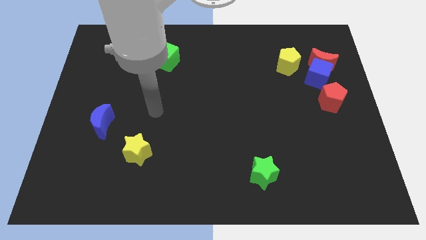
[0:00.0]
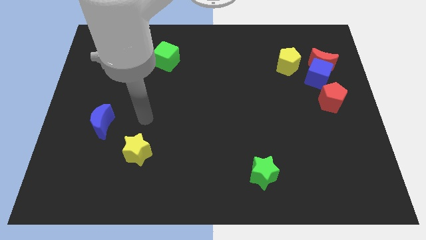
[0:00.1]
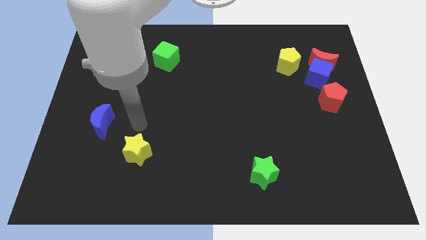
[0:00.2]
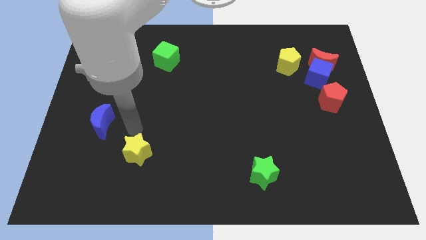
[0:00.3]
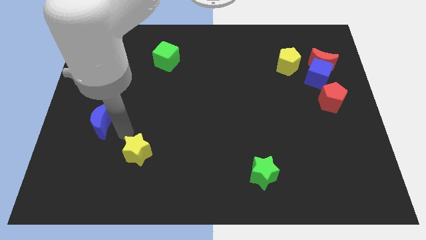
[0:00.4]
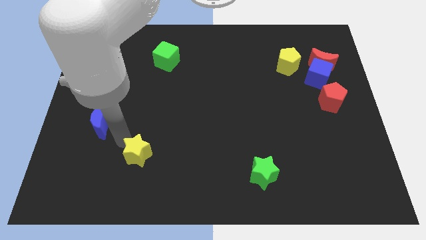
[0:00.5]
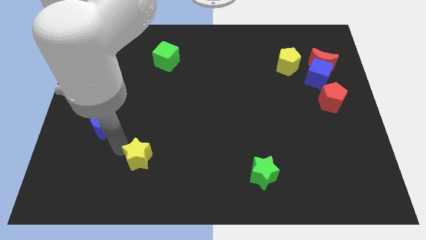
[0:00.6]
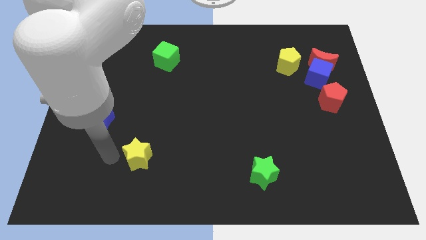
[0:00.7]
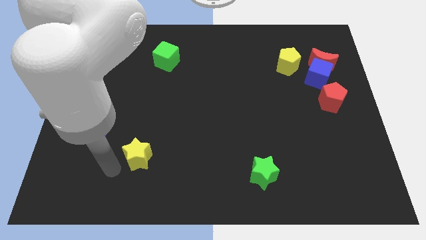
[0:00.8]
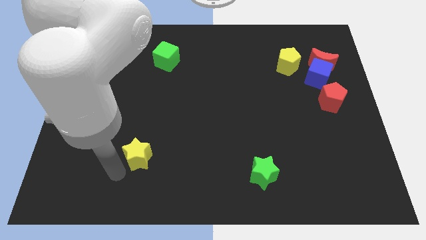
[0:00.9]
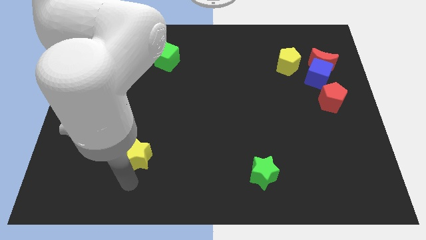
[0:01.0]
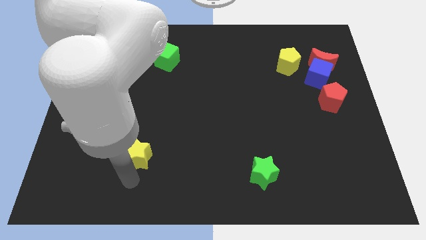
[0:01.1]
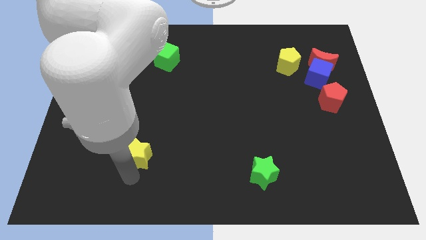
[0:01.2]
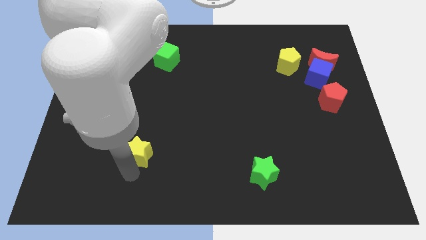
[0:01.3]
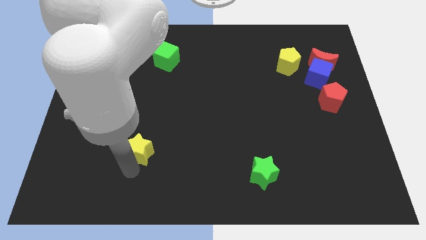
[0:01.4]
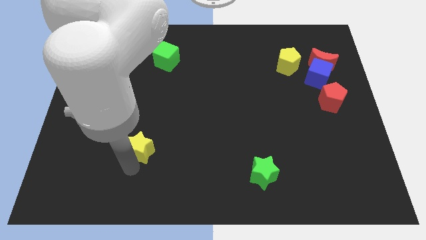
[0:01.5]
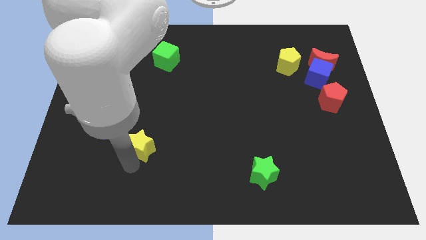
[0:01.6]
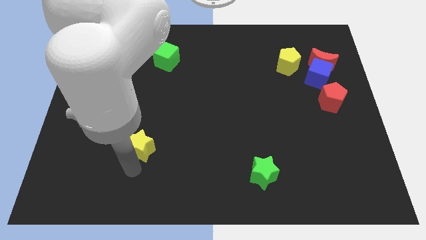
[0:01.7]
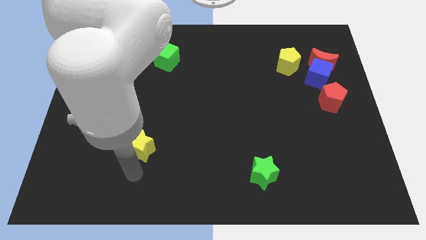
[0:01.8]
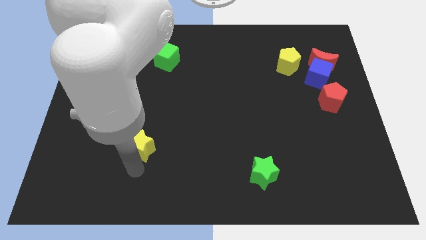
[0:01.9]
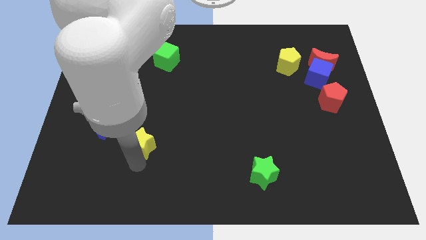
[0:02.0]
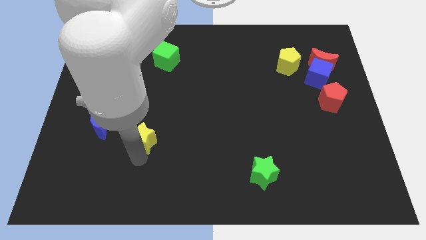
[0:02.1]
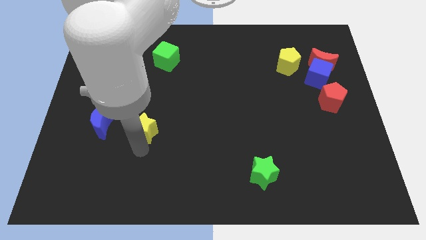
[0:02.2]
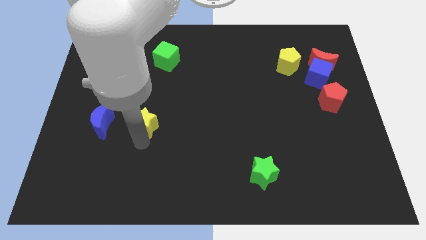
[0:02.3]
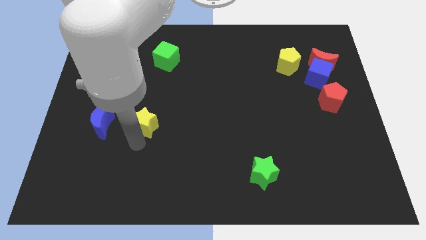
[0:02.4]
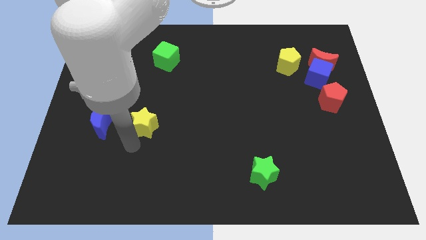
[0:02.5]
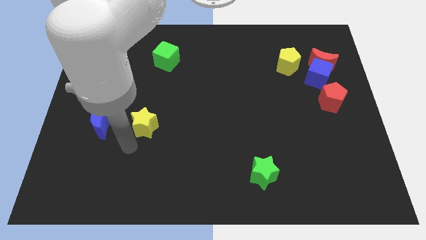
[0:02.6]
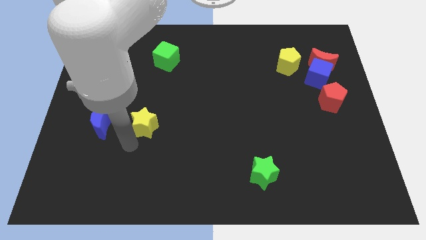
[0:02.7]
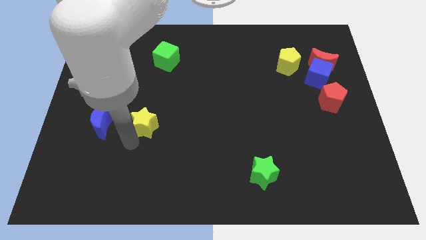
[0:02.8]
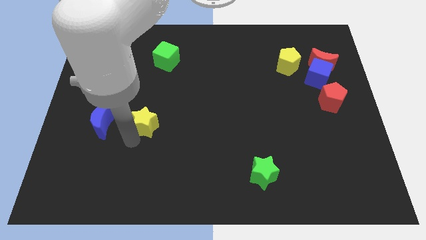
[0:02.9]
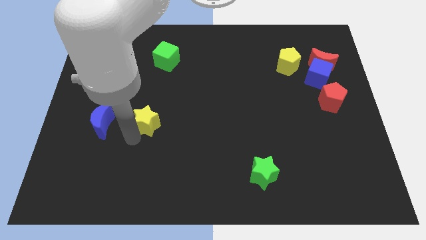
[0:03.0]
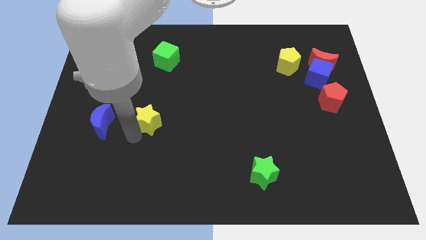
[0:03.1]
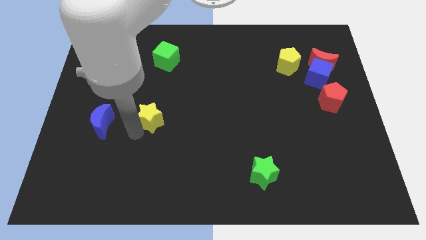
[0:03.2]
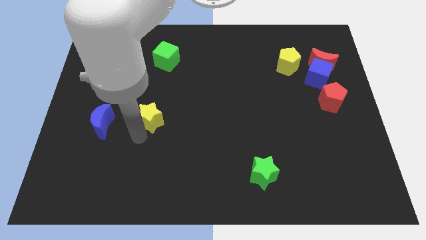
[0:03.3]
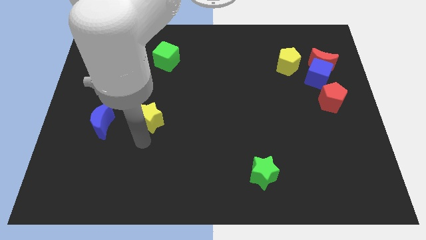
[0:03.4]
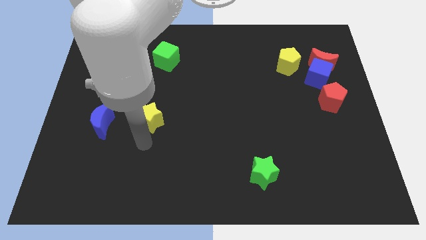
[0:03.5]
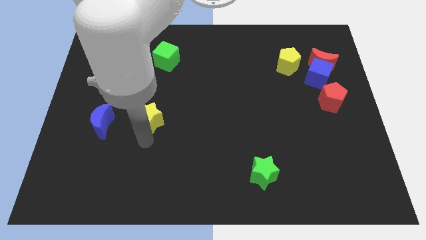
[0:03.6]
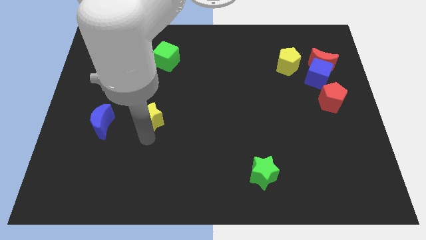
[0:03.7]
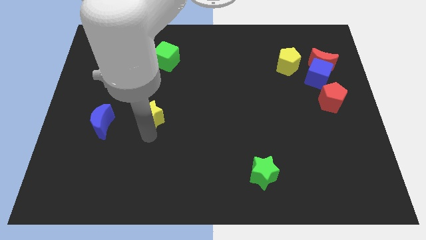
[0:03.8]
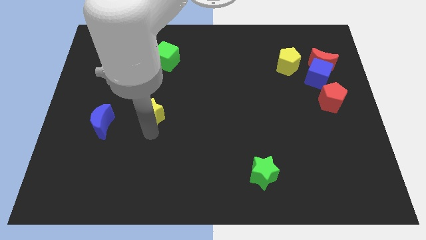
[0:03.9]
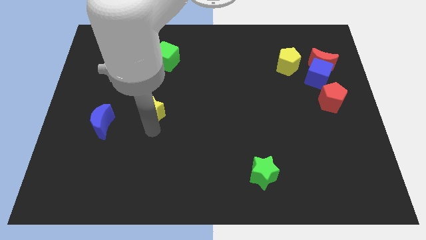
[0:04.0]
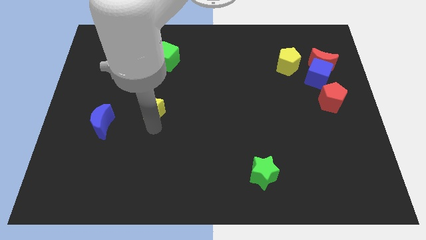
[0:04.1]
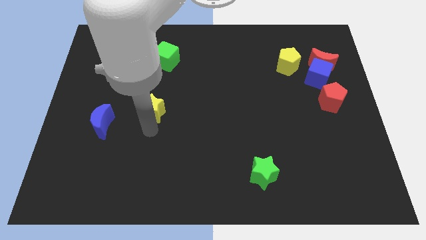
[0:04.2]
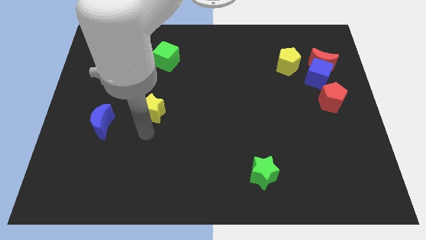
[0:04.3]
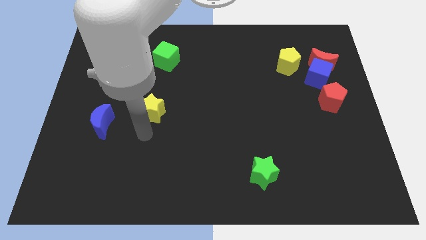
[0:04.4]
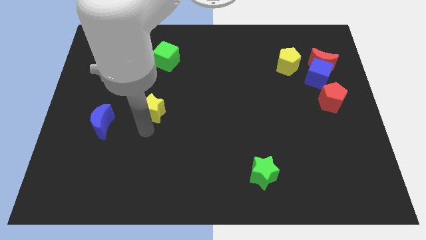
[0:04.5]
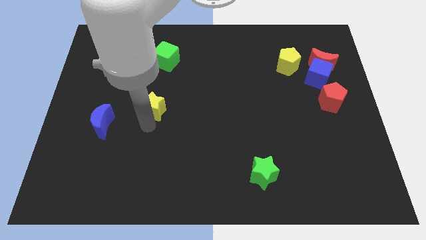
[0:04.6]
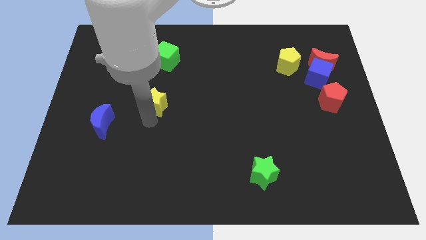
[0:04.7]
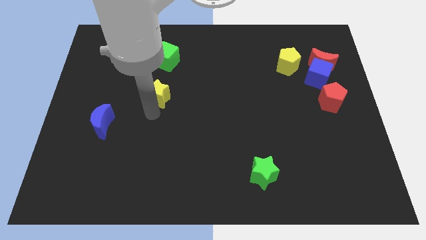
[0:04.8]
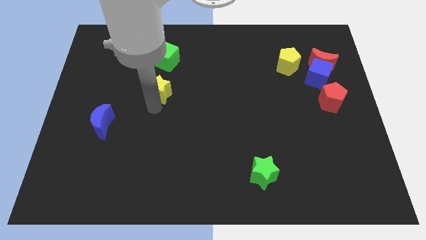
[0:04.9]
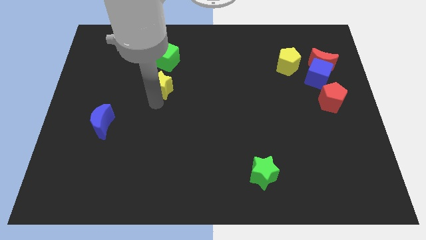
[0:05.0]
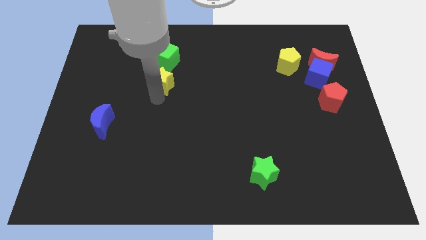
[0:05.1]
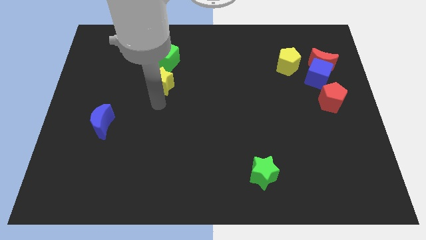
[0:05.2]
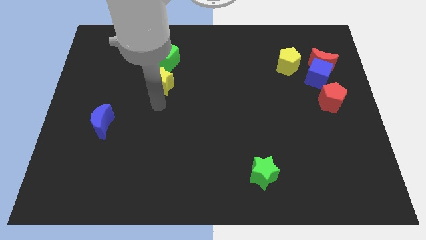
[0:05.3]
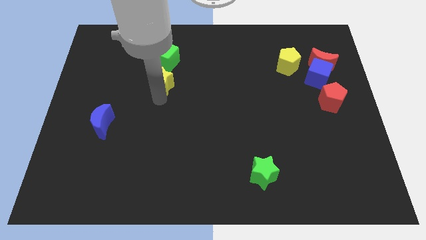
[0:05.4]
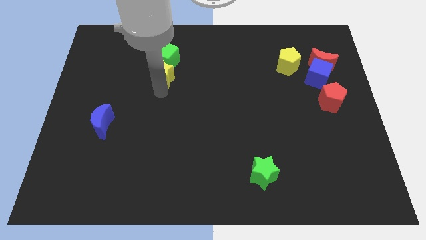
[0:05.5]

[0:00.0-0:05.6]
put the yellow star to the green cube

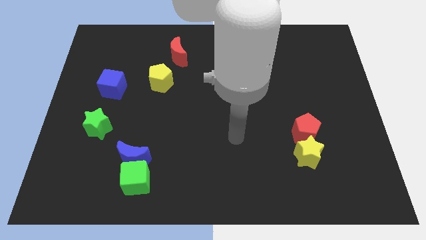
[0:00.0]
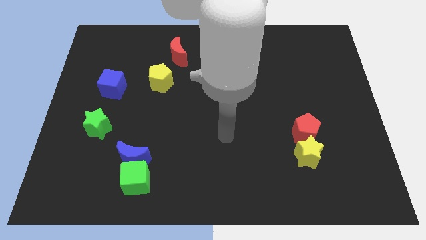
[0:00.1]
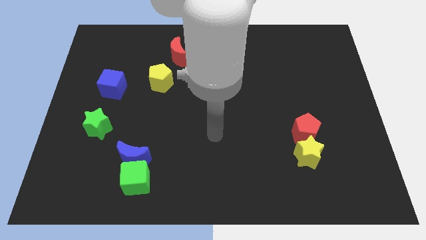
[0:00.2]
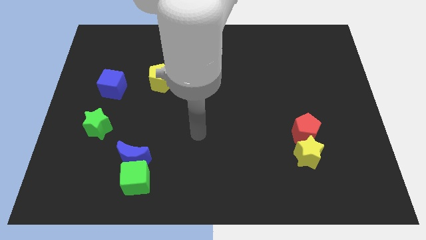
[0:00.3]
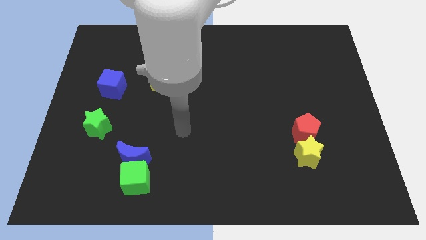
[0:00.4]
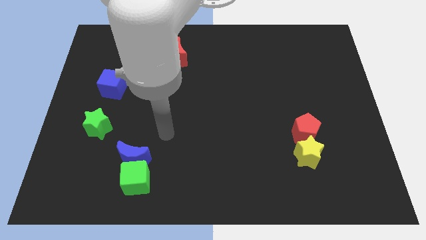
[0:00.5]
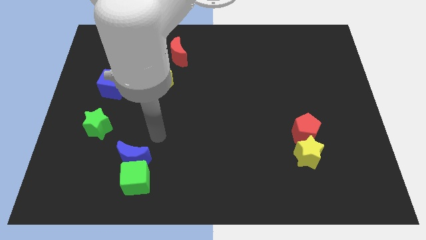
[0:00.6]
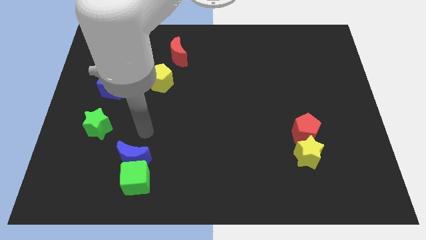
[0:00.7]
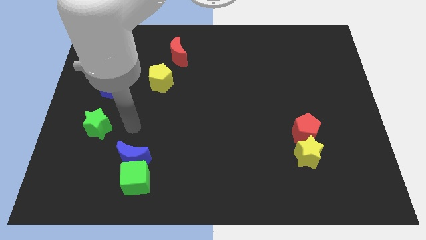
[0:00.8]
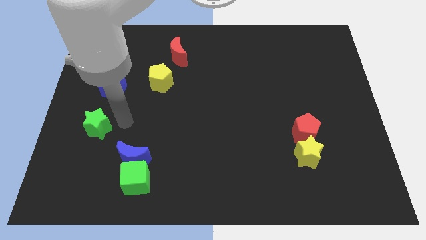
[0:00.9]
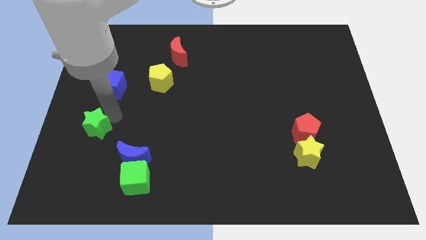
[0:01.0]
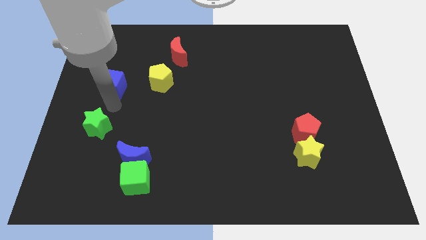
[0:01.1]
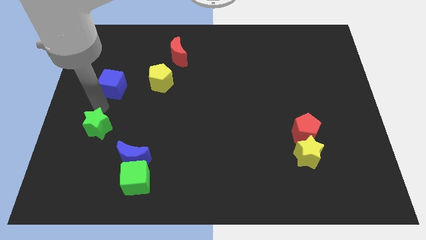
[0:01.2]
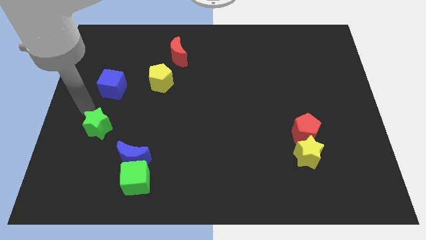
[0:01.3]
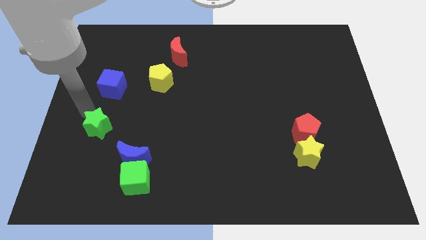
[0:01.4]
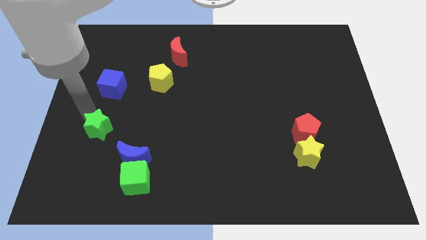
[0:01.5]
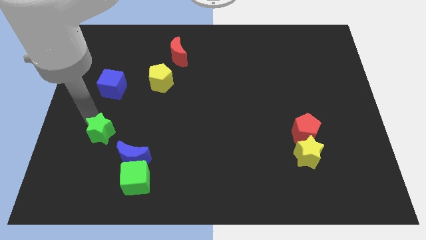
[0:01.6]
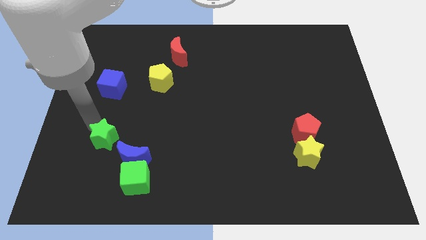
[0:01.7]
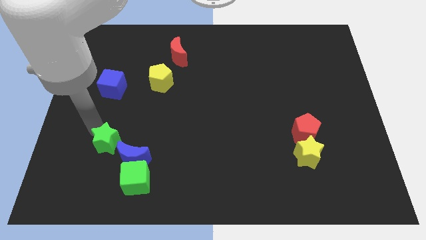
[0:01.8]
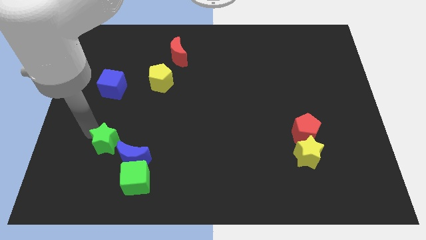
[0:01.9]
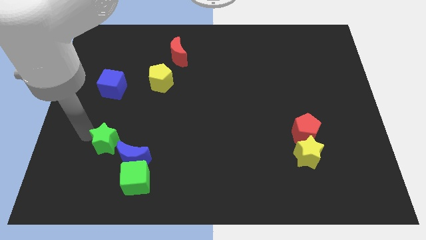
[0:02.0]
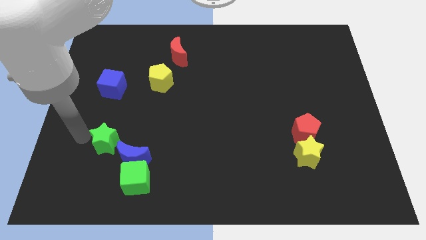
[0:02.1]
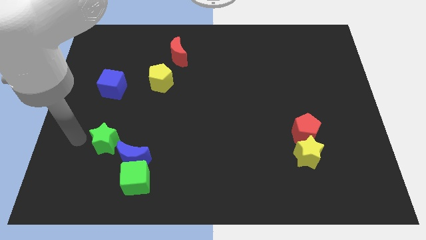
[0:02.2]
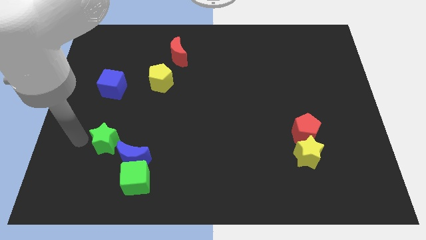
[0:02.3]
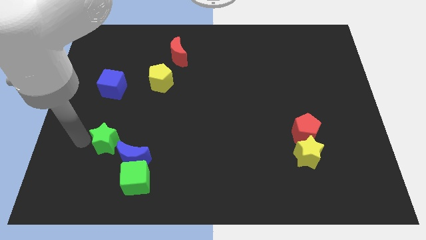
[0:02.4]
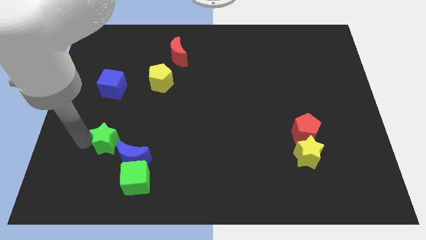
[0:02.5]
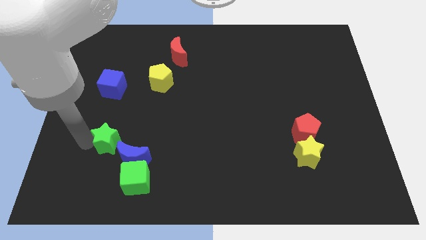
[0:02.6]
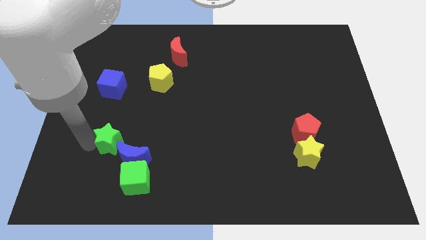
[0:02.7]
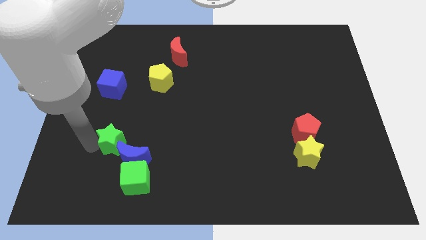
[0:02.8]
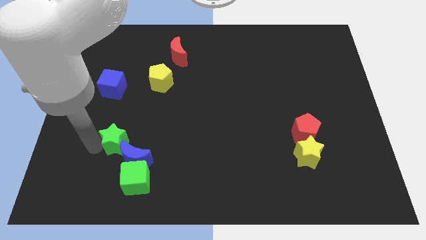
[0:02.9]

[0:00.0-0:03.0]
put the green star to the blue moon
